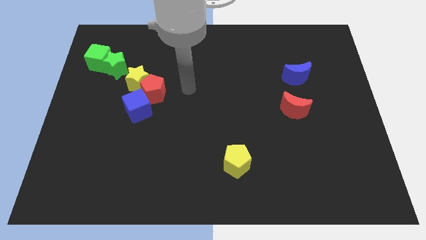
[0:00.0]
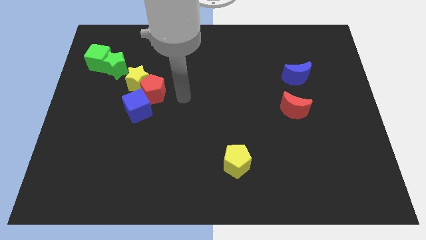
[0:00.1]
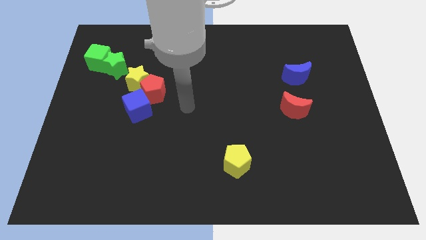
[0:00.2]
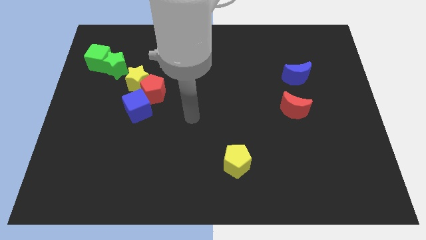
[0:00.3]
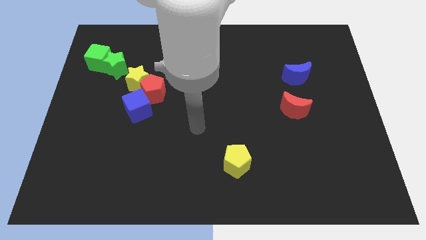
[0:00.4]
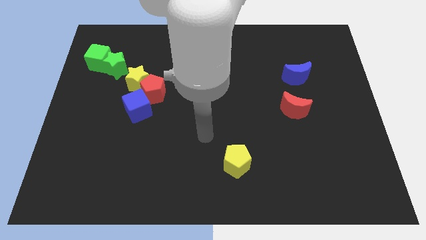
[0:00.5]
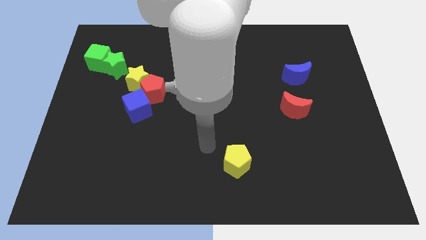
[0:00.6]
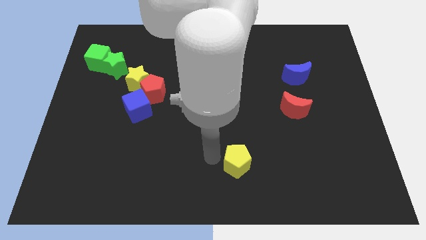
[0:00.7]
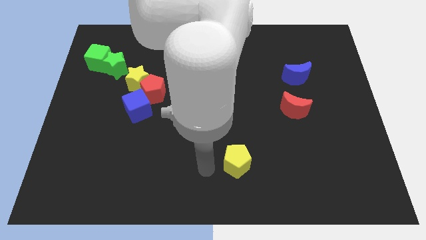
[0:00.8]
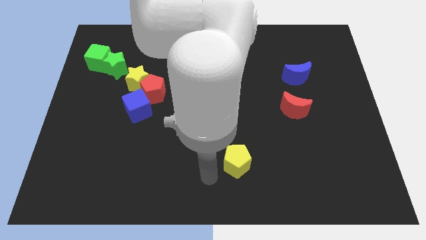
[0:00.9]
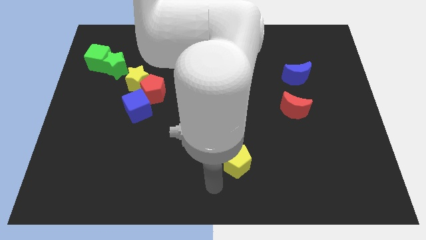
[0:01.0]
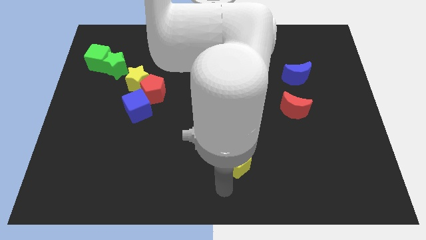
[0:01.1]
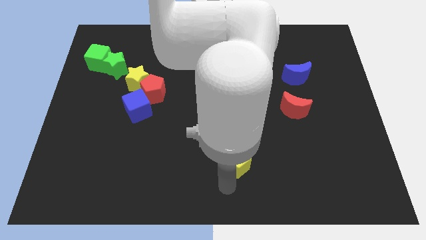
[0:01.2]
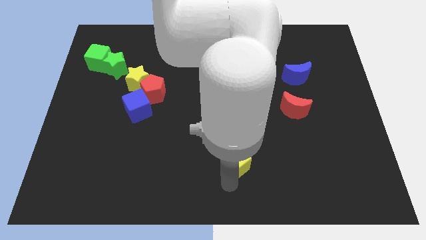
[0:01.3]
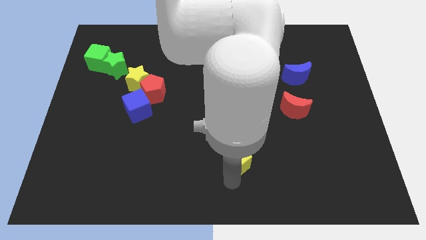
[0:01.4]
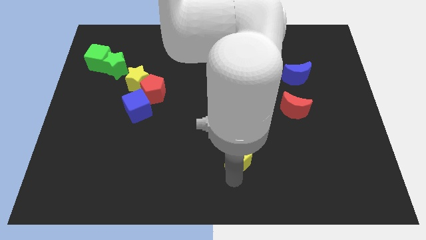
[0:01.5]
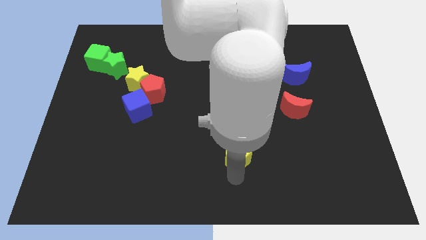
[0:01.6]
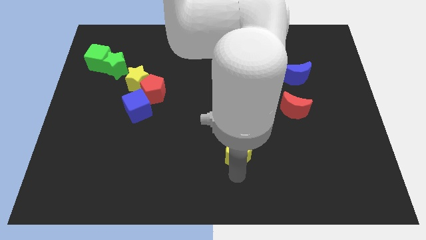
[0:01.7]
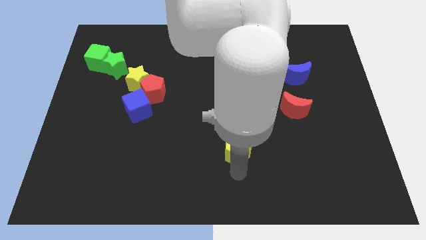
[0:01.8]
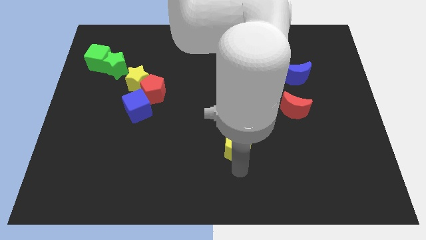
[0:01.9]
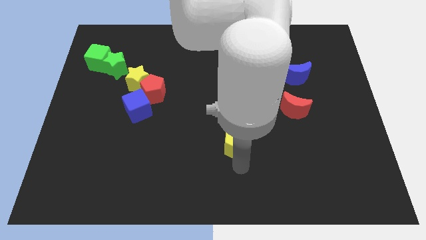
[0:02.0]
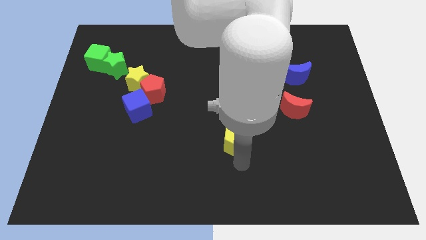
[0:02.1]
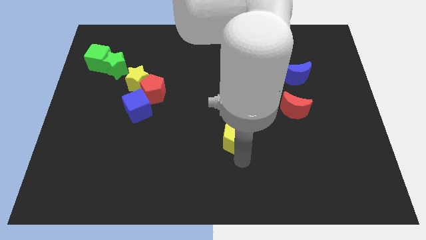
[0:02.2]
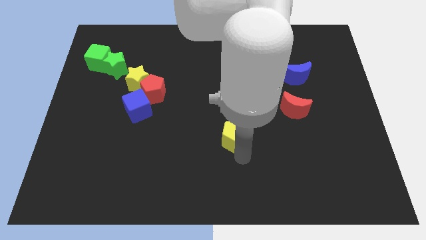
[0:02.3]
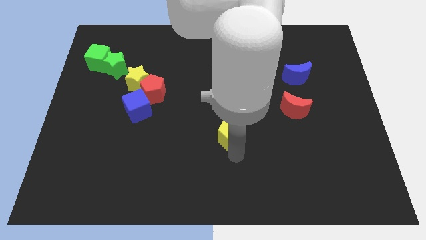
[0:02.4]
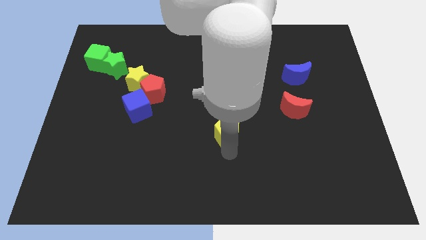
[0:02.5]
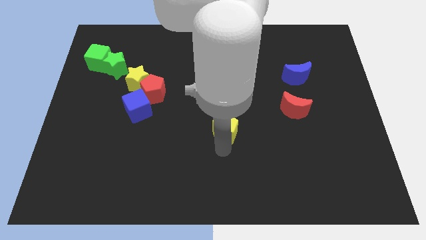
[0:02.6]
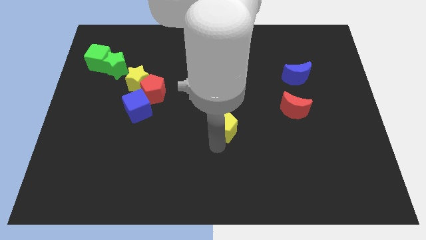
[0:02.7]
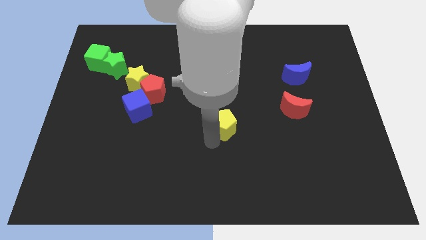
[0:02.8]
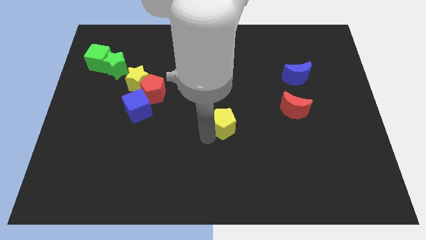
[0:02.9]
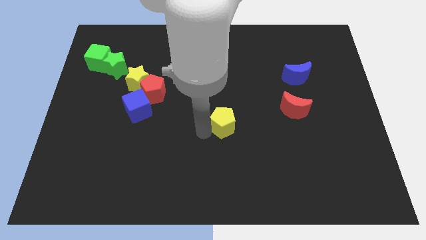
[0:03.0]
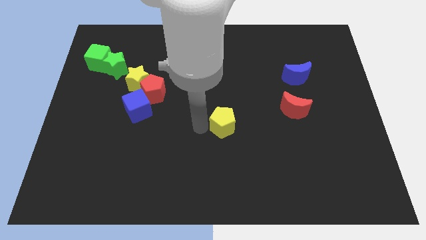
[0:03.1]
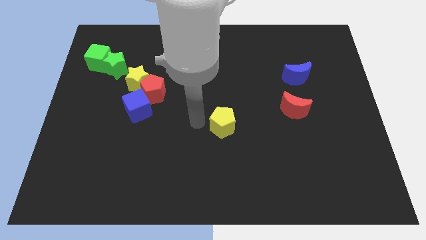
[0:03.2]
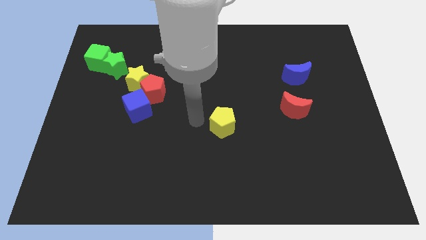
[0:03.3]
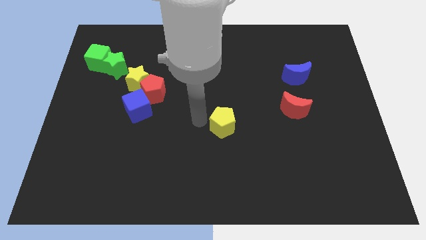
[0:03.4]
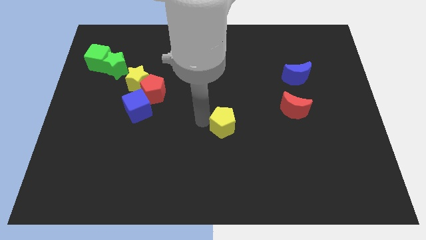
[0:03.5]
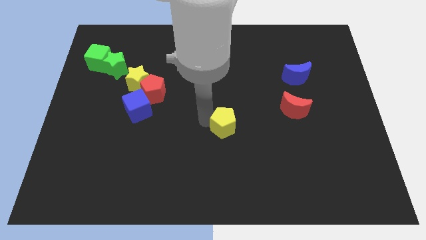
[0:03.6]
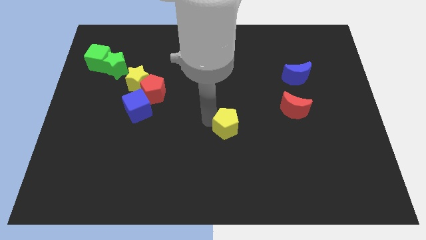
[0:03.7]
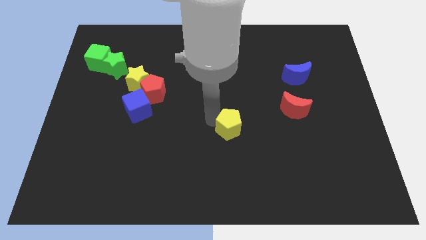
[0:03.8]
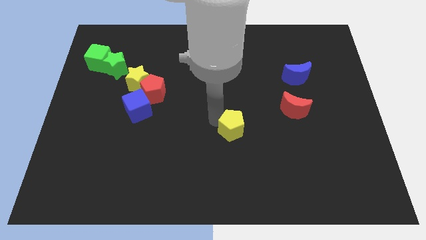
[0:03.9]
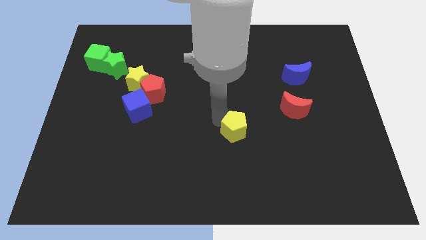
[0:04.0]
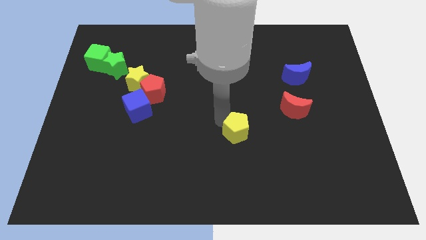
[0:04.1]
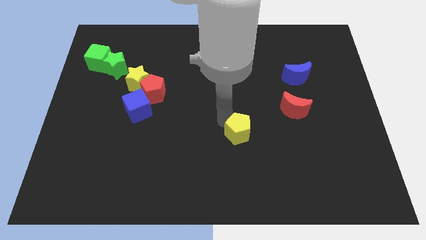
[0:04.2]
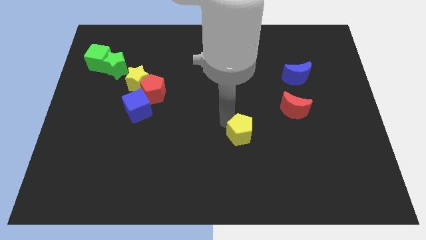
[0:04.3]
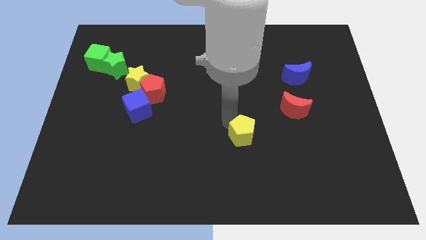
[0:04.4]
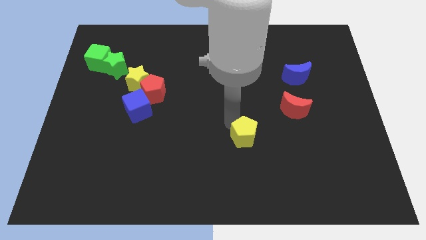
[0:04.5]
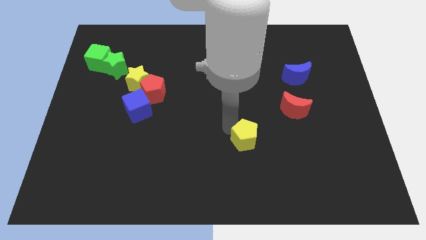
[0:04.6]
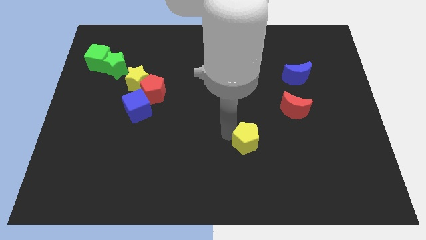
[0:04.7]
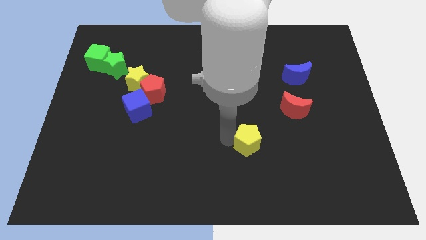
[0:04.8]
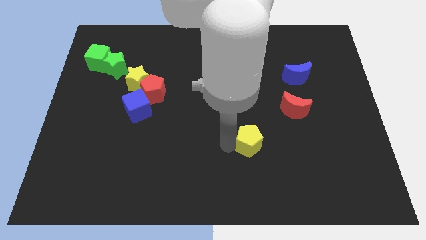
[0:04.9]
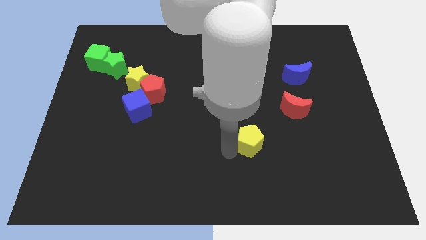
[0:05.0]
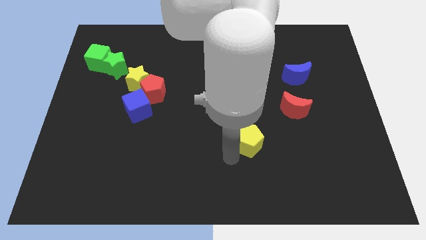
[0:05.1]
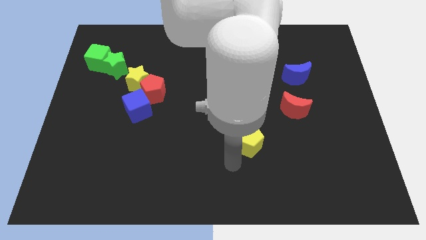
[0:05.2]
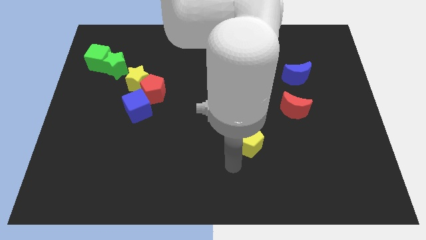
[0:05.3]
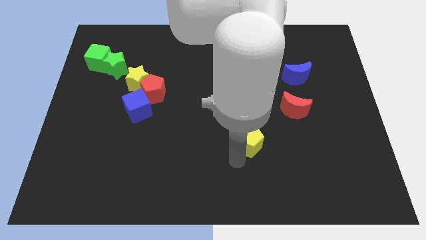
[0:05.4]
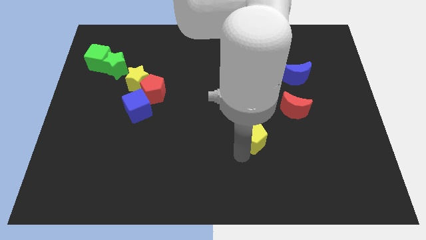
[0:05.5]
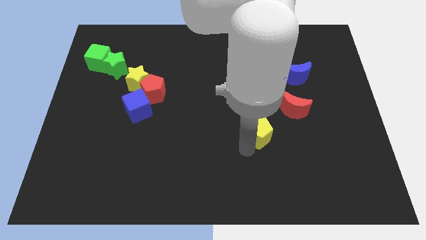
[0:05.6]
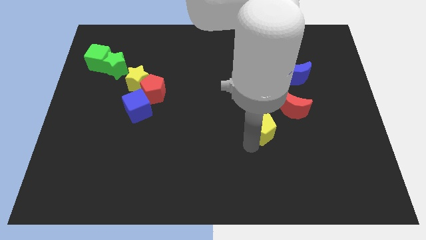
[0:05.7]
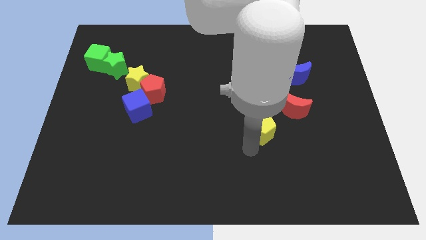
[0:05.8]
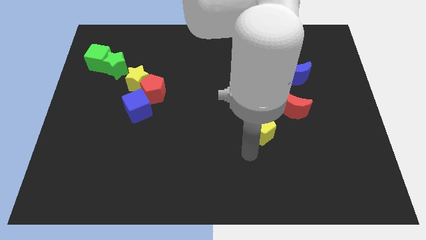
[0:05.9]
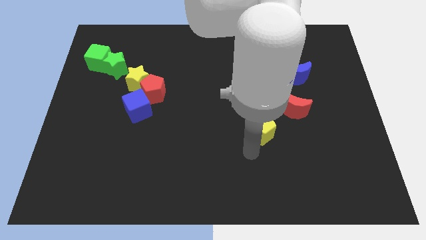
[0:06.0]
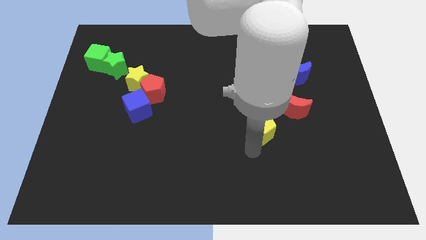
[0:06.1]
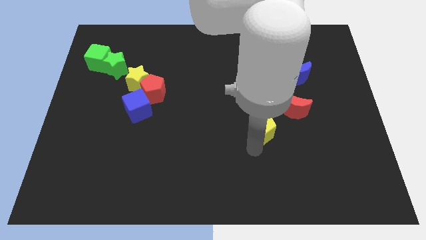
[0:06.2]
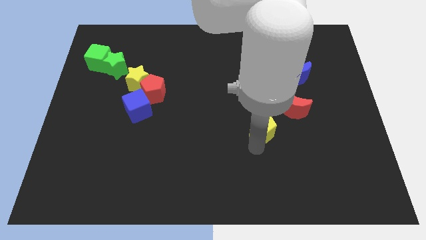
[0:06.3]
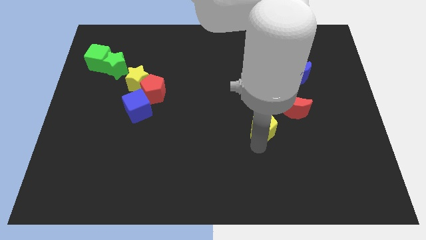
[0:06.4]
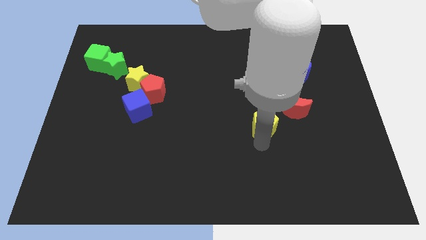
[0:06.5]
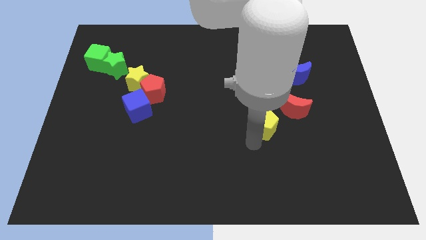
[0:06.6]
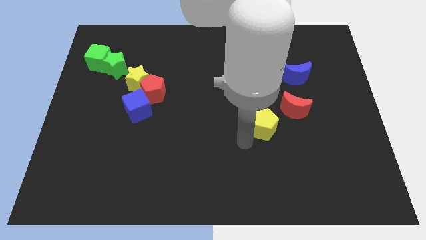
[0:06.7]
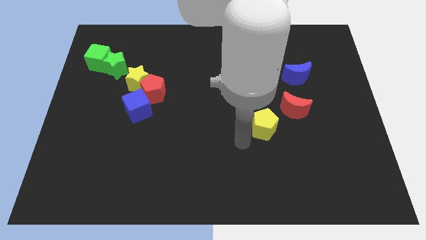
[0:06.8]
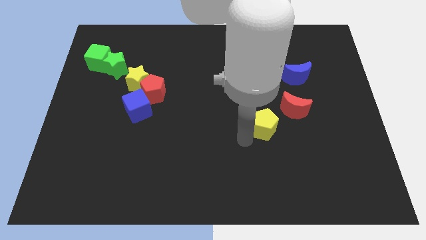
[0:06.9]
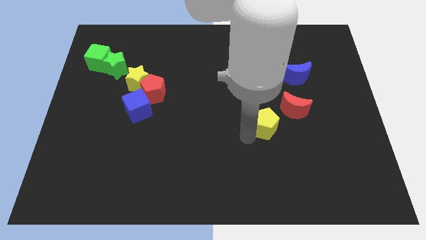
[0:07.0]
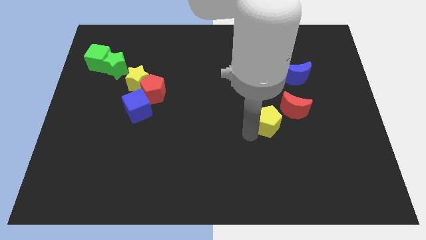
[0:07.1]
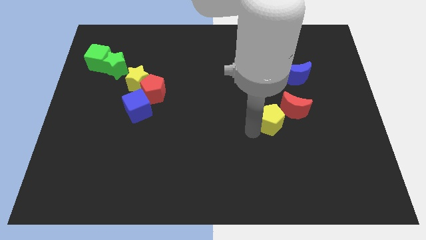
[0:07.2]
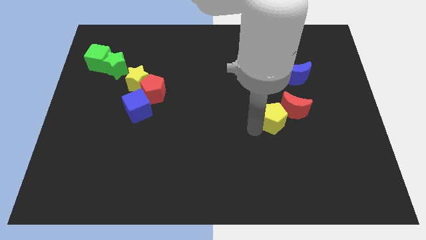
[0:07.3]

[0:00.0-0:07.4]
push the yellow pentagon to the red moon
